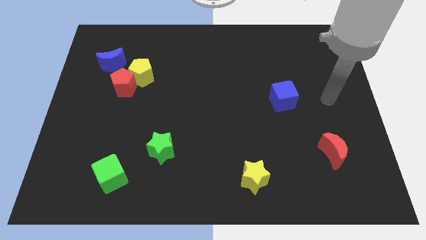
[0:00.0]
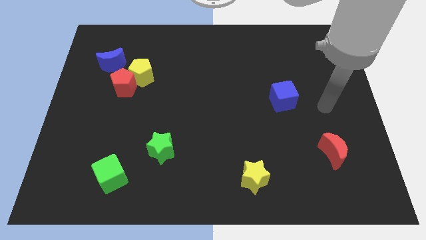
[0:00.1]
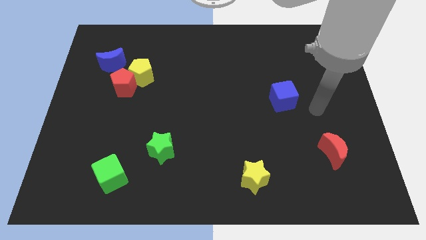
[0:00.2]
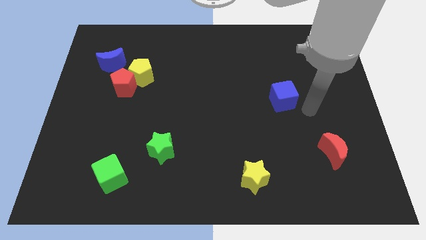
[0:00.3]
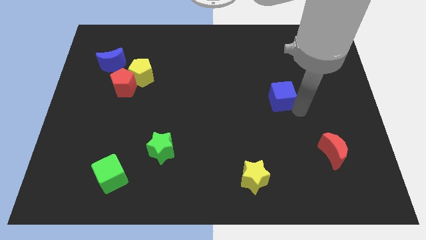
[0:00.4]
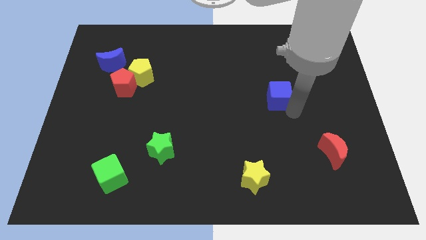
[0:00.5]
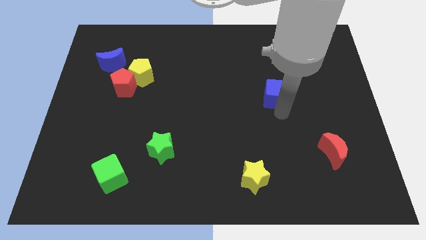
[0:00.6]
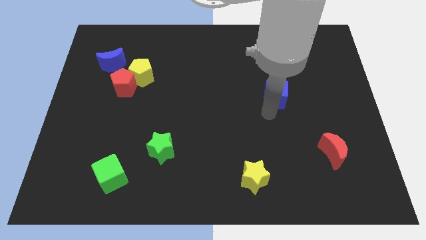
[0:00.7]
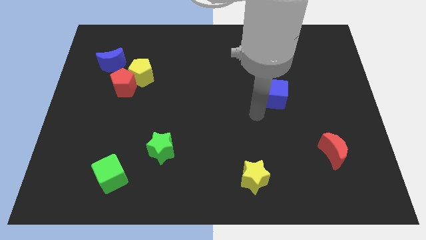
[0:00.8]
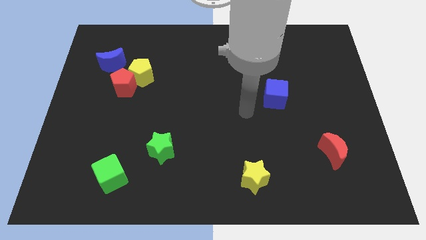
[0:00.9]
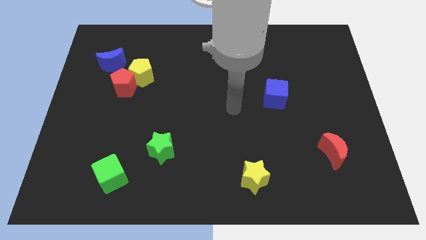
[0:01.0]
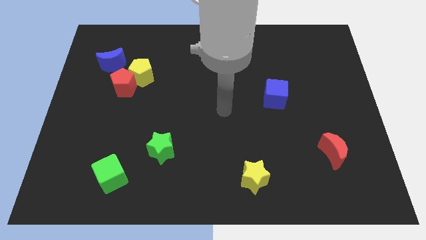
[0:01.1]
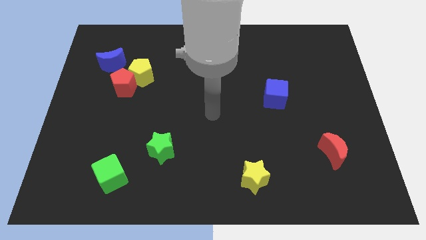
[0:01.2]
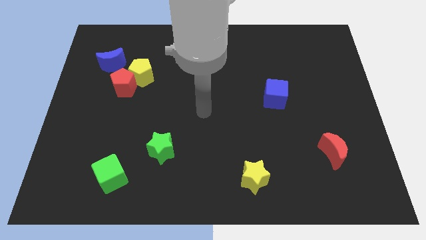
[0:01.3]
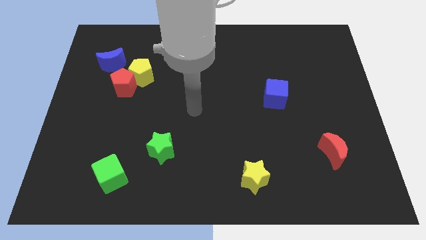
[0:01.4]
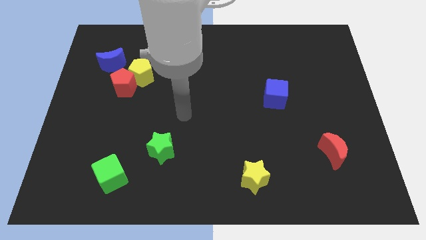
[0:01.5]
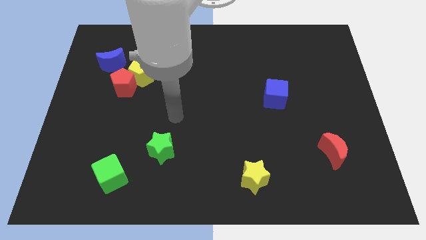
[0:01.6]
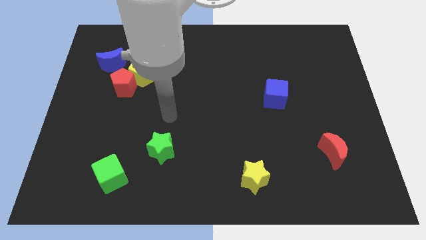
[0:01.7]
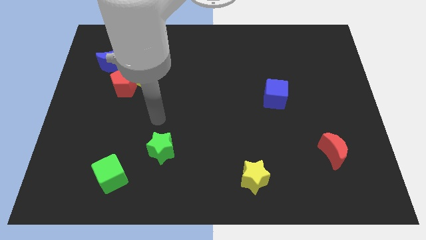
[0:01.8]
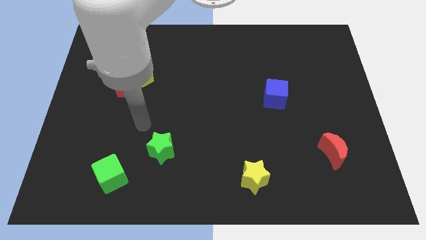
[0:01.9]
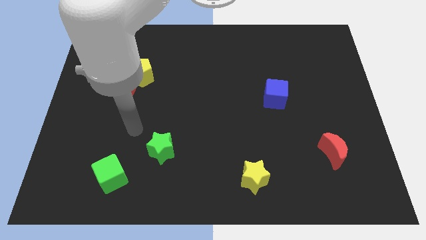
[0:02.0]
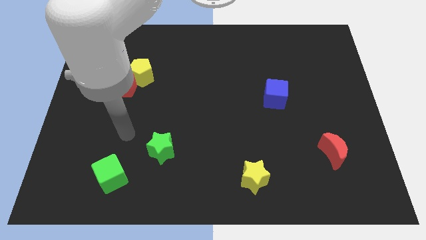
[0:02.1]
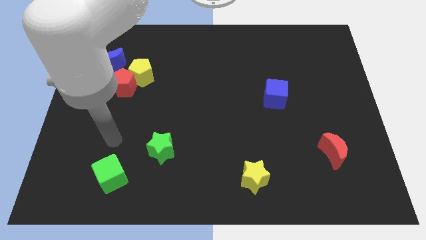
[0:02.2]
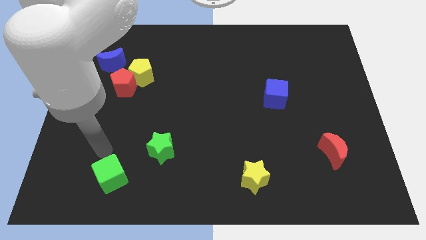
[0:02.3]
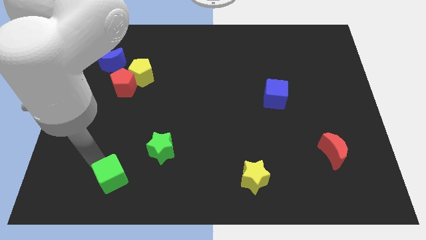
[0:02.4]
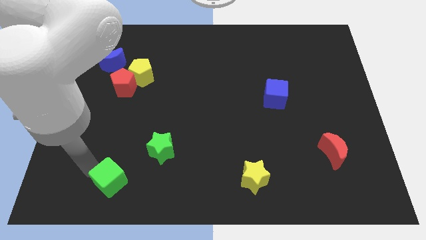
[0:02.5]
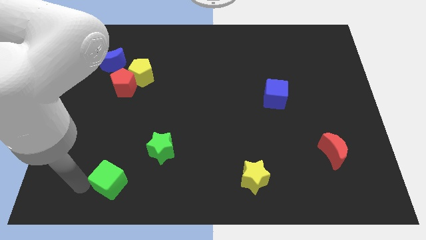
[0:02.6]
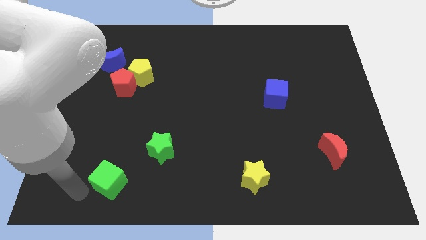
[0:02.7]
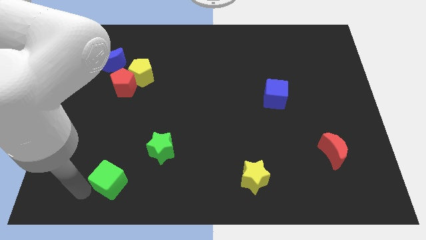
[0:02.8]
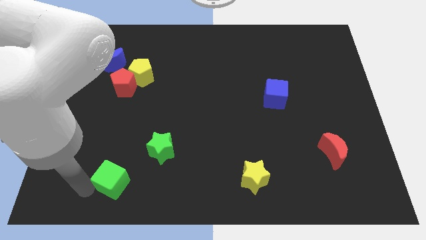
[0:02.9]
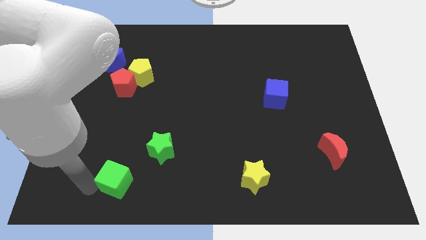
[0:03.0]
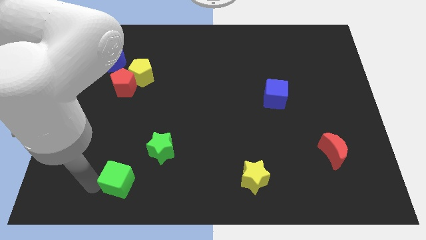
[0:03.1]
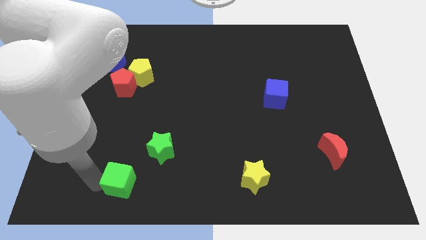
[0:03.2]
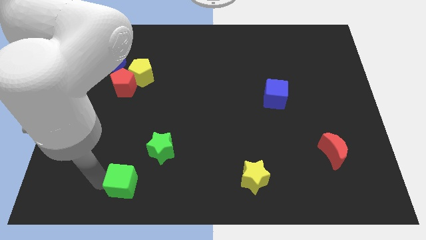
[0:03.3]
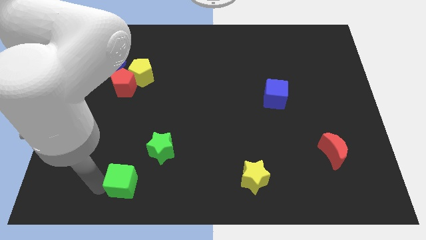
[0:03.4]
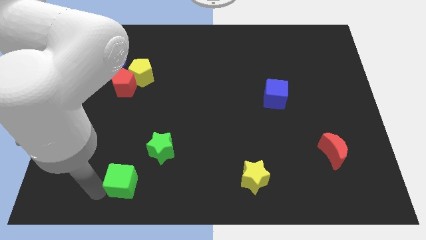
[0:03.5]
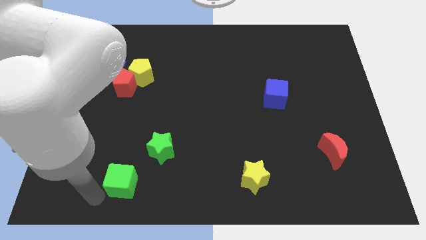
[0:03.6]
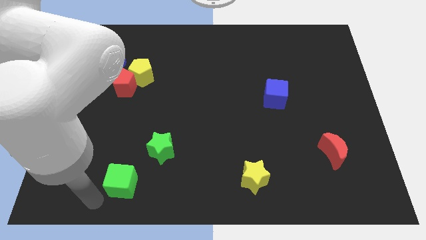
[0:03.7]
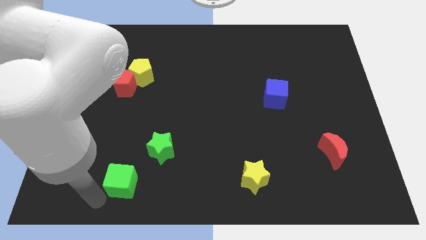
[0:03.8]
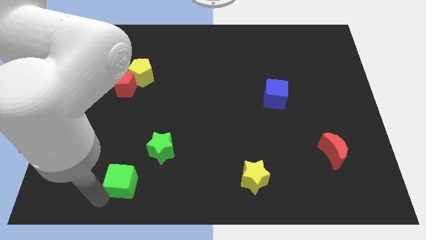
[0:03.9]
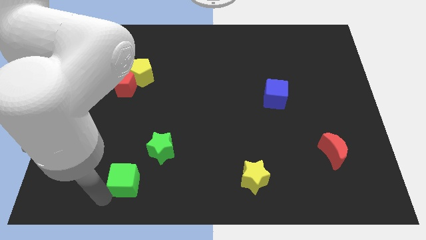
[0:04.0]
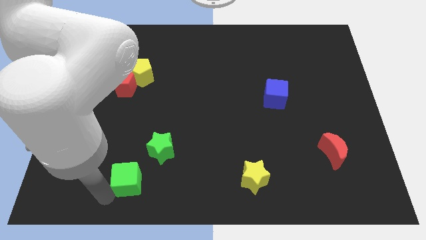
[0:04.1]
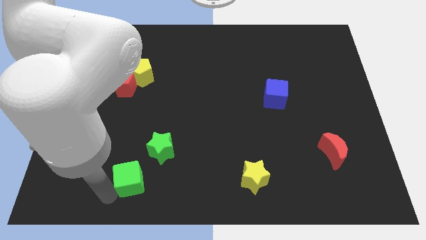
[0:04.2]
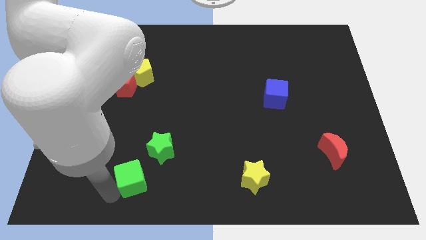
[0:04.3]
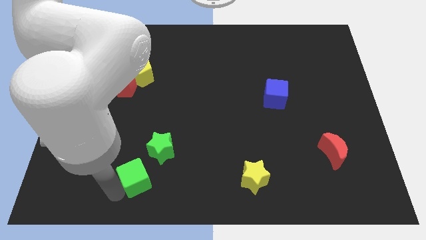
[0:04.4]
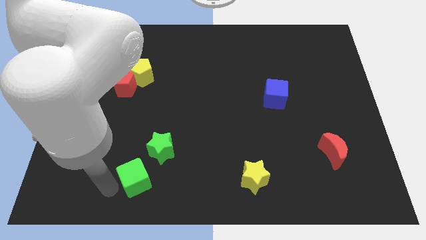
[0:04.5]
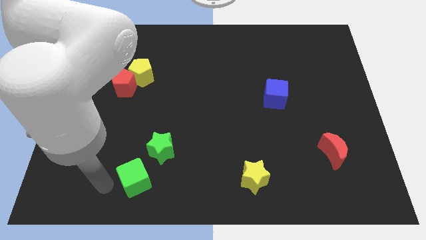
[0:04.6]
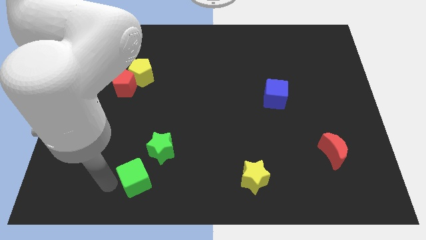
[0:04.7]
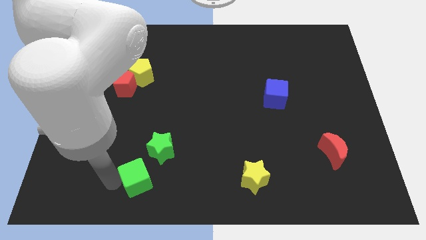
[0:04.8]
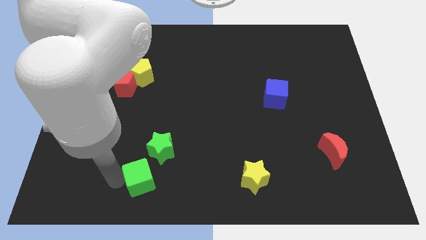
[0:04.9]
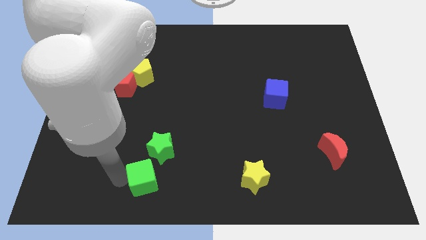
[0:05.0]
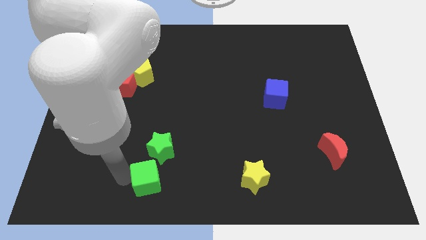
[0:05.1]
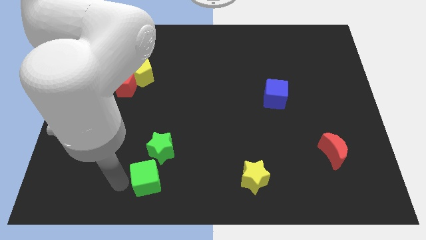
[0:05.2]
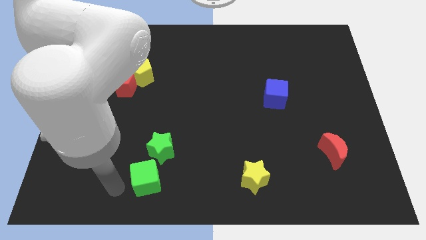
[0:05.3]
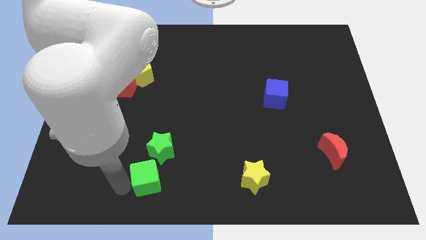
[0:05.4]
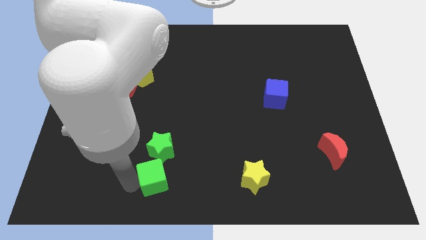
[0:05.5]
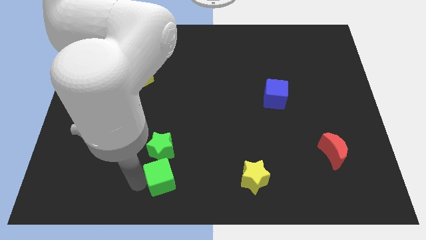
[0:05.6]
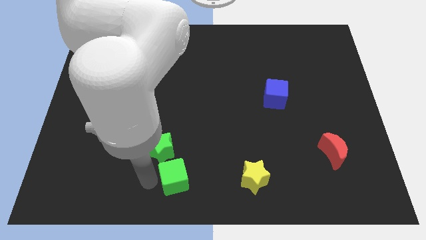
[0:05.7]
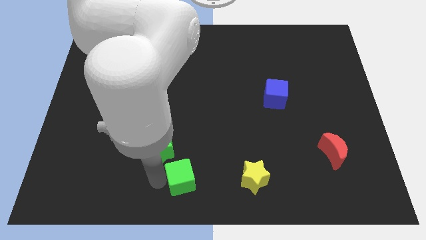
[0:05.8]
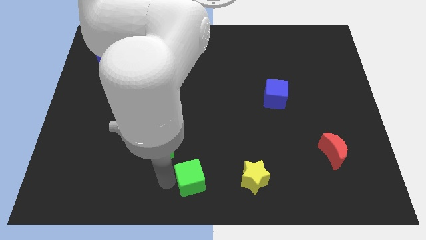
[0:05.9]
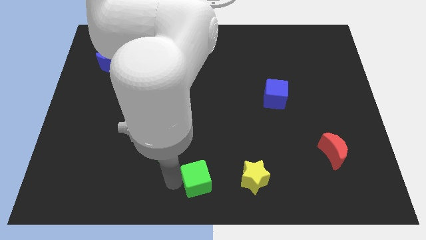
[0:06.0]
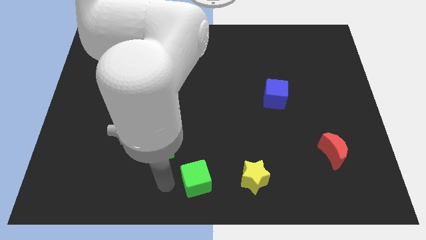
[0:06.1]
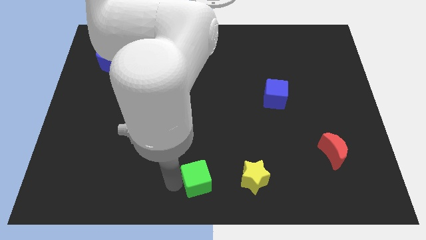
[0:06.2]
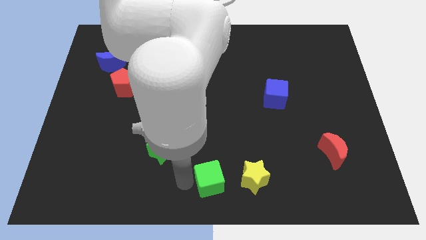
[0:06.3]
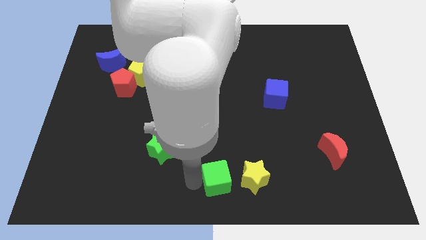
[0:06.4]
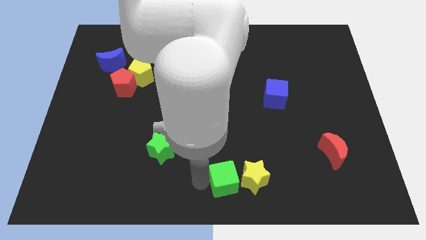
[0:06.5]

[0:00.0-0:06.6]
push the green cube towards the yellow star
